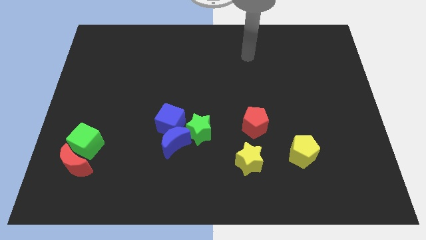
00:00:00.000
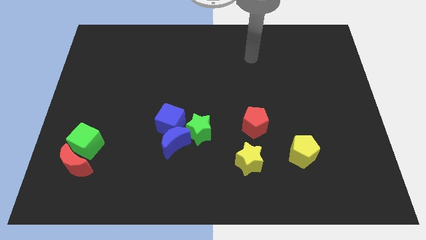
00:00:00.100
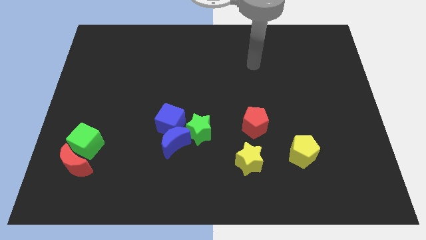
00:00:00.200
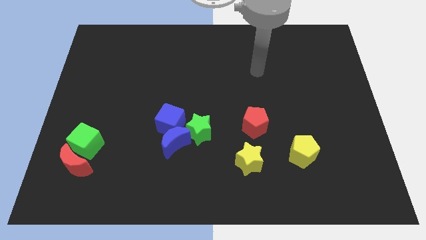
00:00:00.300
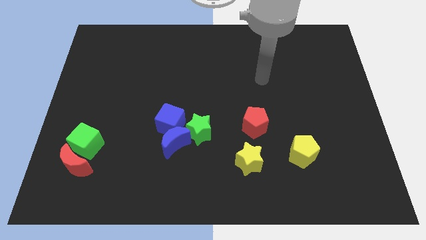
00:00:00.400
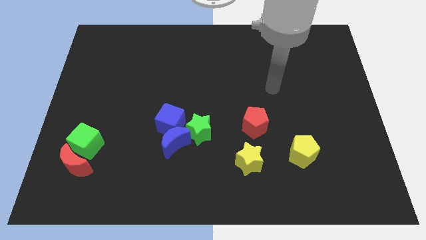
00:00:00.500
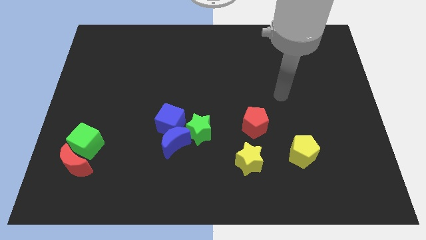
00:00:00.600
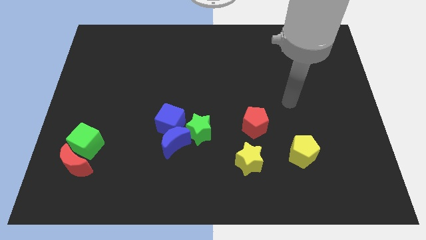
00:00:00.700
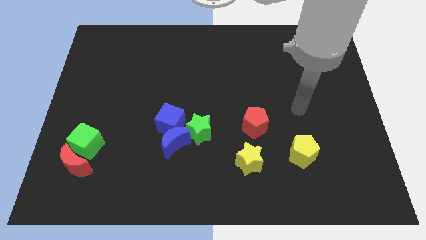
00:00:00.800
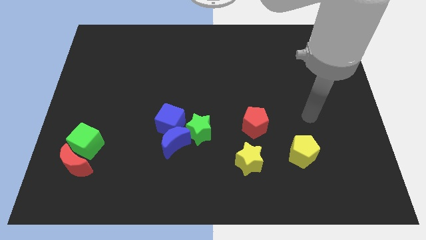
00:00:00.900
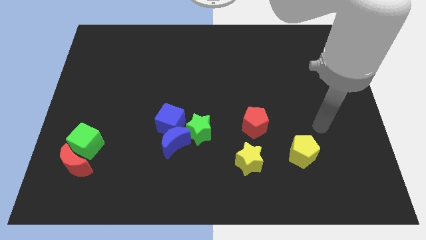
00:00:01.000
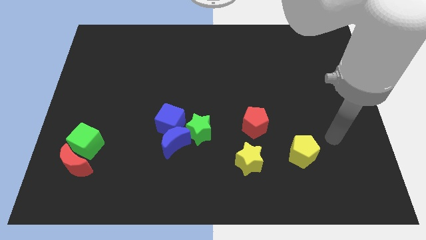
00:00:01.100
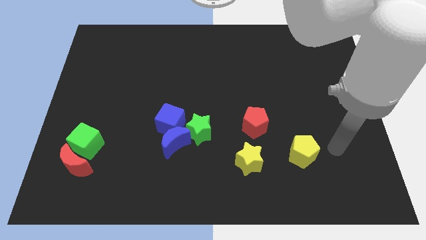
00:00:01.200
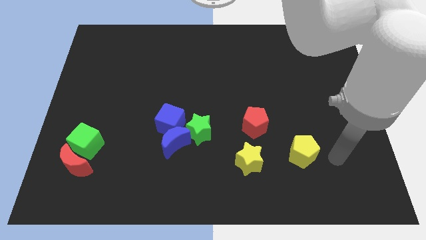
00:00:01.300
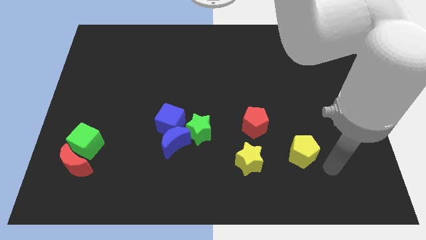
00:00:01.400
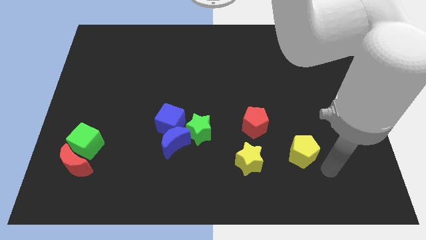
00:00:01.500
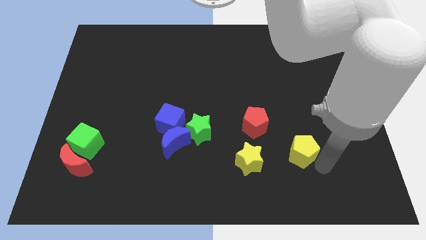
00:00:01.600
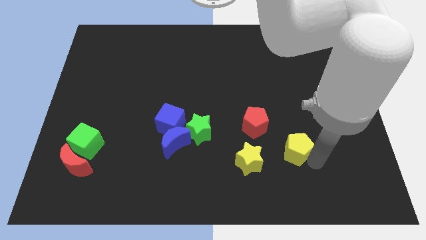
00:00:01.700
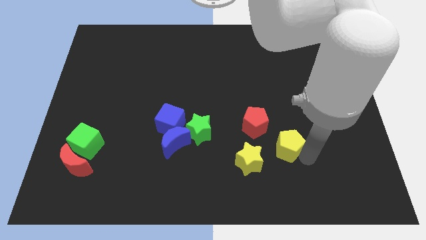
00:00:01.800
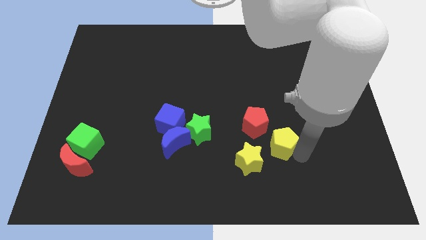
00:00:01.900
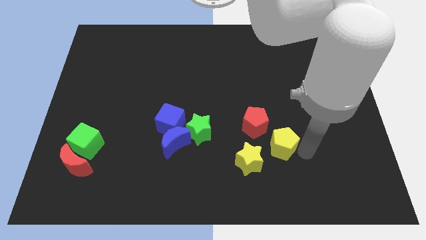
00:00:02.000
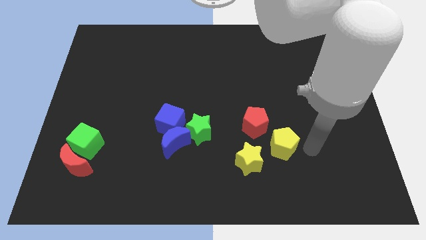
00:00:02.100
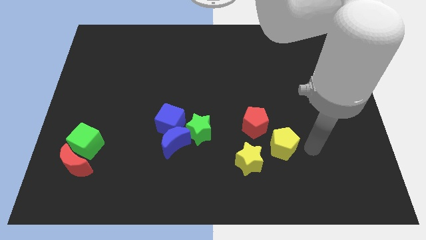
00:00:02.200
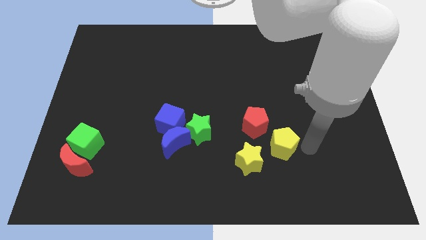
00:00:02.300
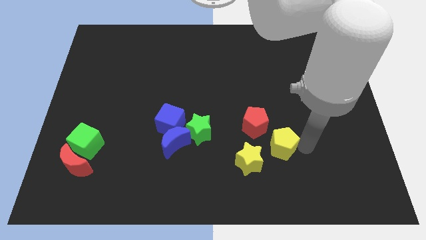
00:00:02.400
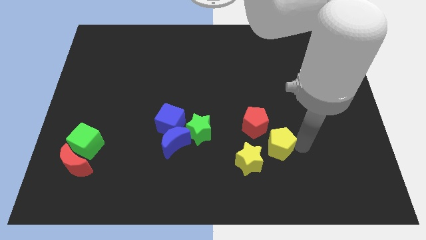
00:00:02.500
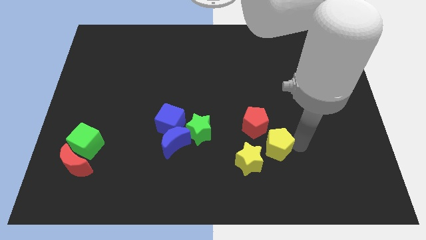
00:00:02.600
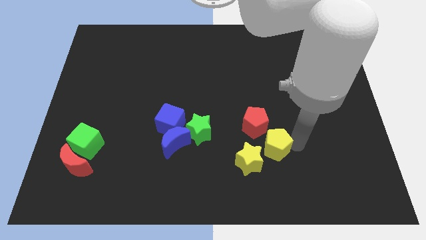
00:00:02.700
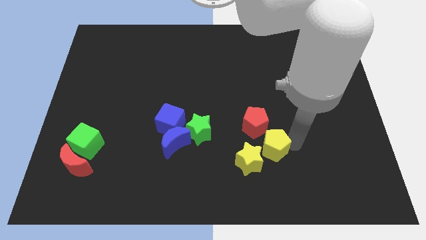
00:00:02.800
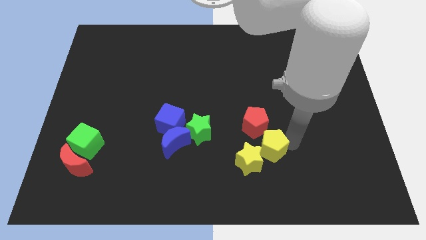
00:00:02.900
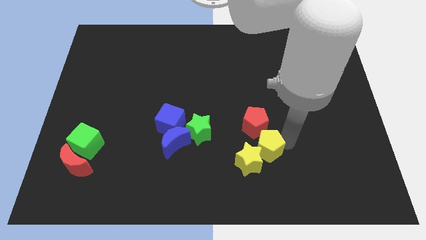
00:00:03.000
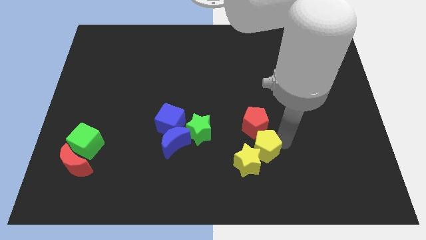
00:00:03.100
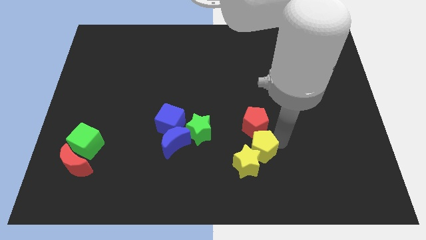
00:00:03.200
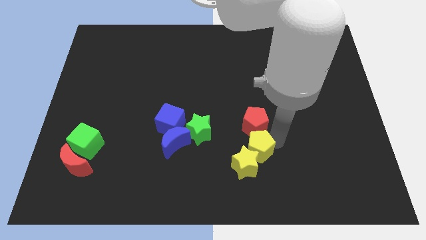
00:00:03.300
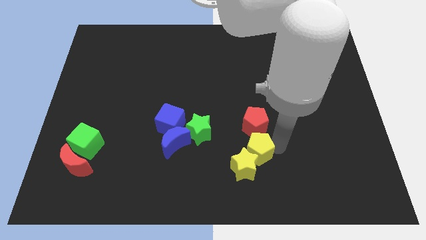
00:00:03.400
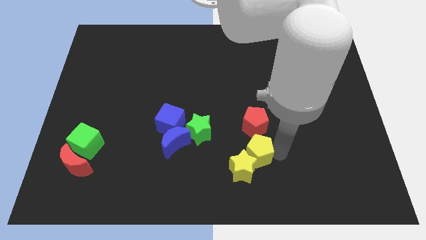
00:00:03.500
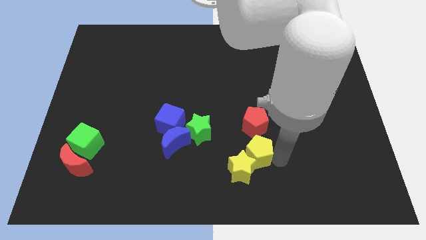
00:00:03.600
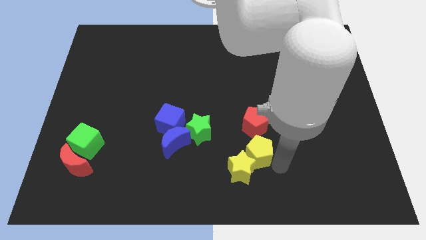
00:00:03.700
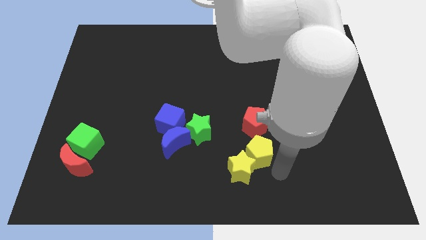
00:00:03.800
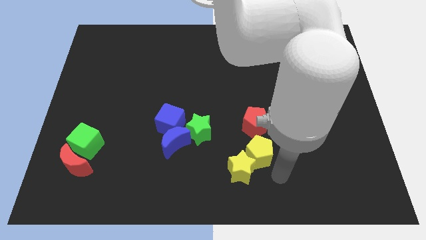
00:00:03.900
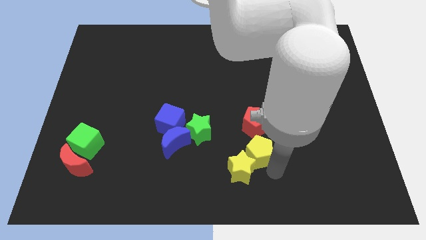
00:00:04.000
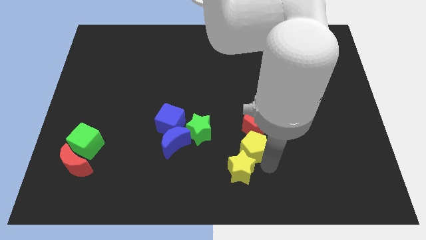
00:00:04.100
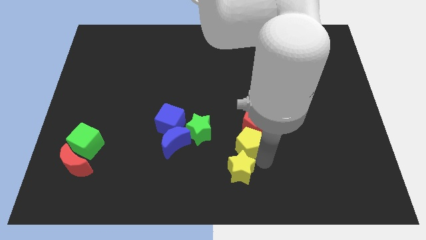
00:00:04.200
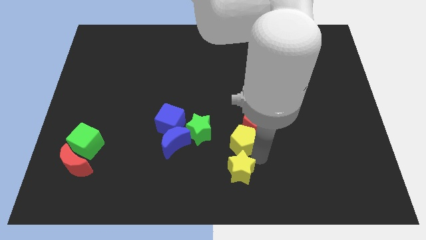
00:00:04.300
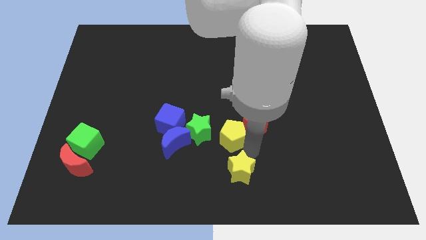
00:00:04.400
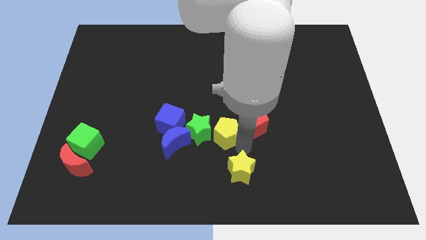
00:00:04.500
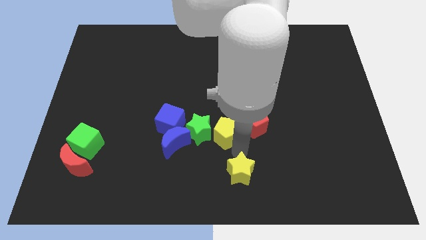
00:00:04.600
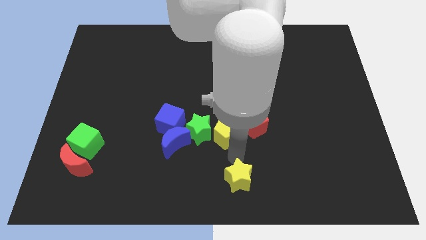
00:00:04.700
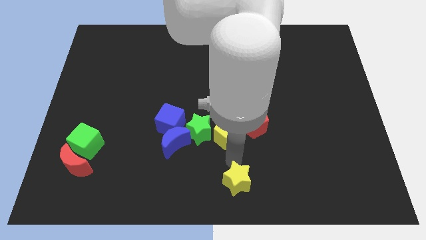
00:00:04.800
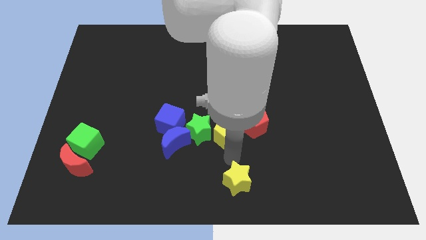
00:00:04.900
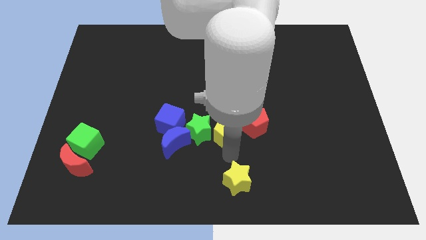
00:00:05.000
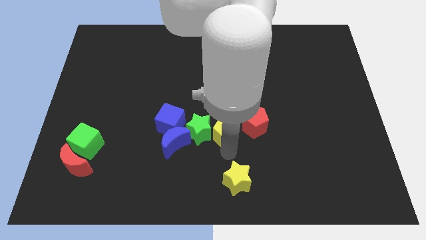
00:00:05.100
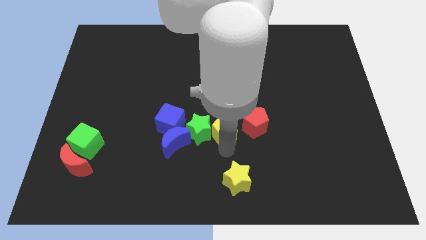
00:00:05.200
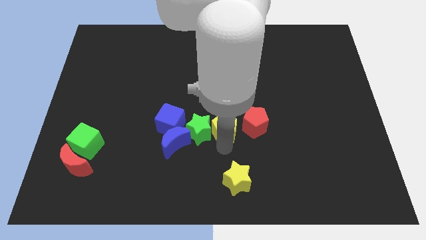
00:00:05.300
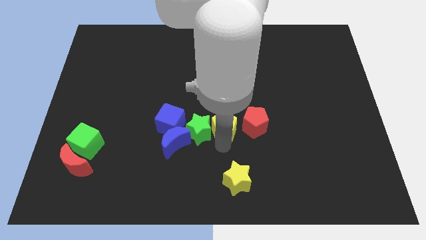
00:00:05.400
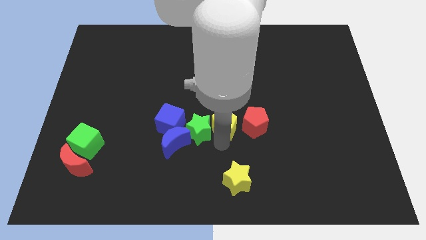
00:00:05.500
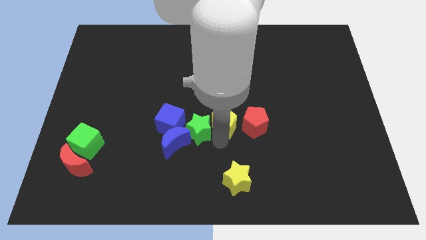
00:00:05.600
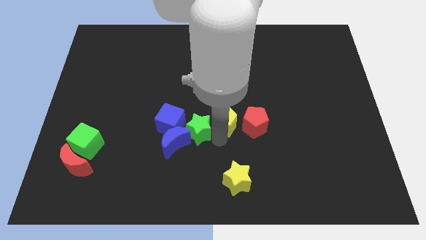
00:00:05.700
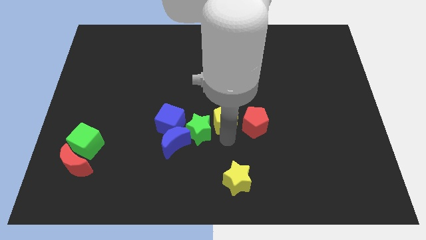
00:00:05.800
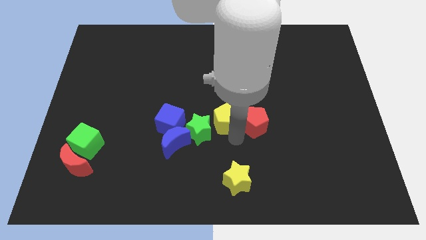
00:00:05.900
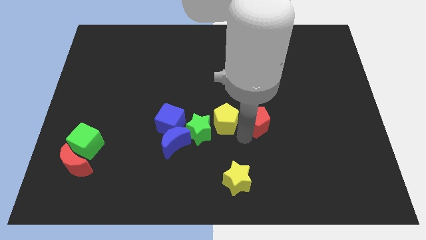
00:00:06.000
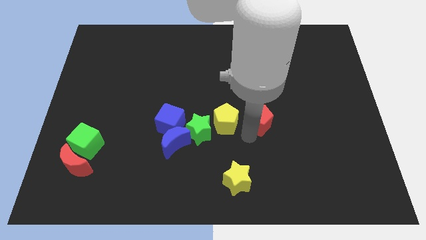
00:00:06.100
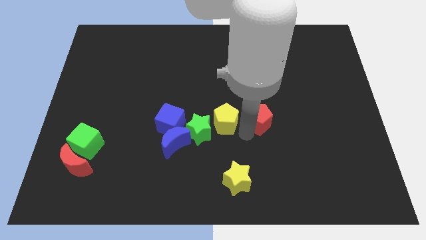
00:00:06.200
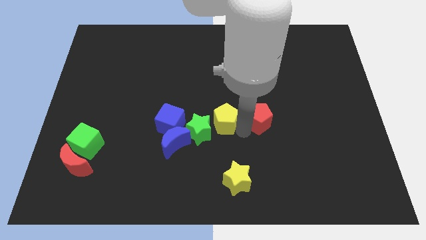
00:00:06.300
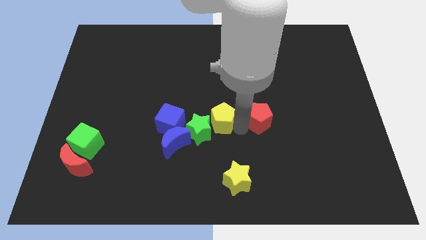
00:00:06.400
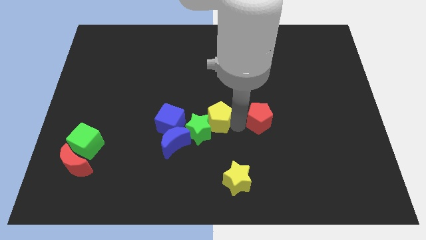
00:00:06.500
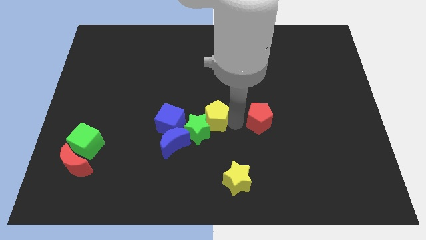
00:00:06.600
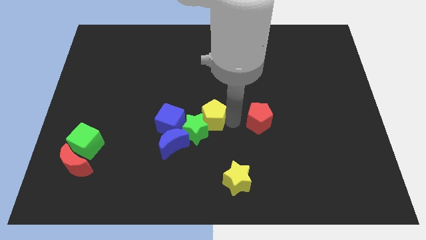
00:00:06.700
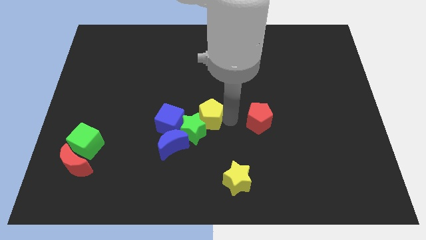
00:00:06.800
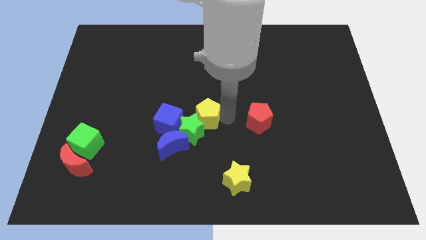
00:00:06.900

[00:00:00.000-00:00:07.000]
slide the yellow pentagon to the top right side of the blue cube

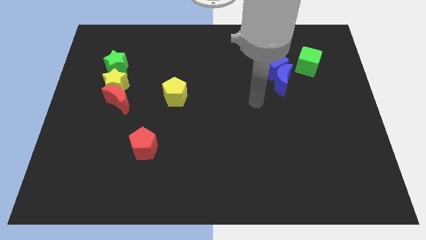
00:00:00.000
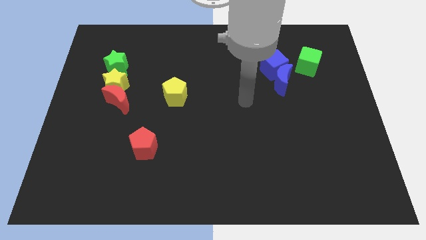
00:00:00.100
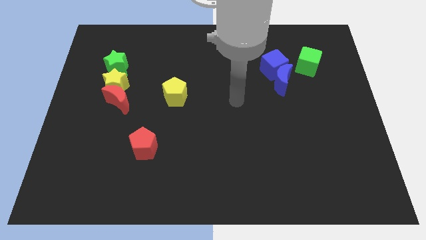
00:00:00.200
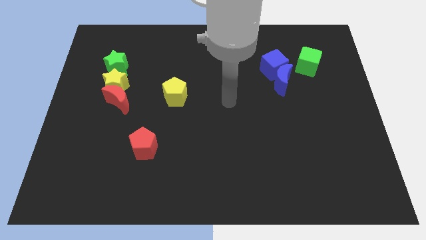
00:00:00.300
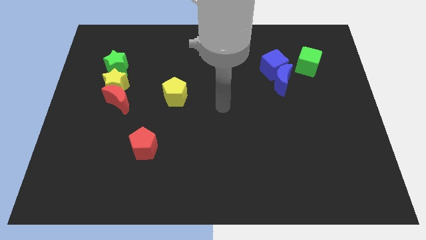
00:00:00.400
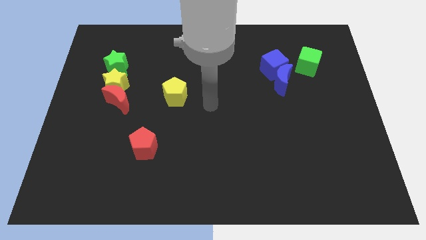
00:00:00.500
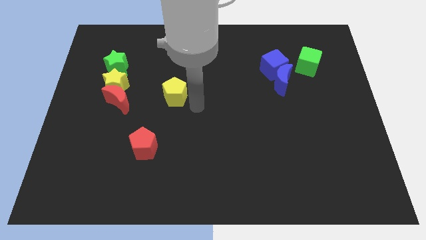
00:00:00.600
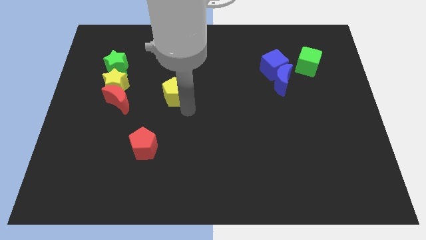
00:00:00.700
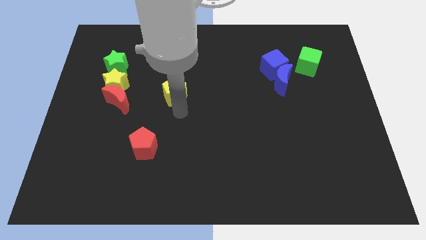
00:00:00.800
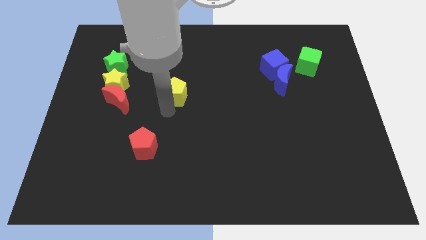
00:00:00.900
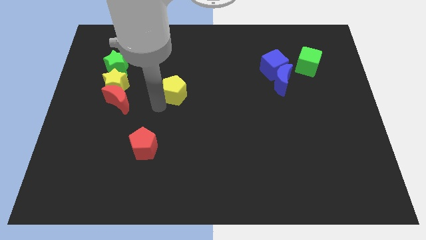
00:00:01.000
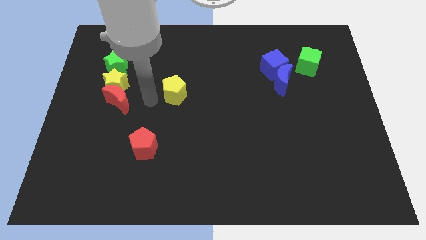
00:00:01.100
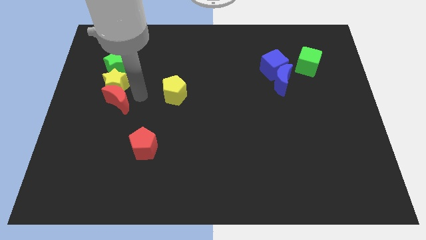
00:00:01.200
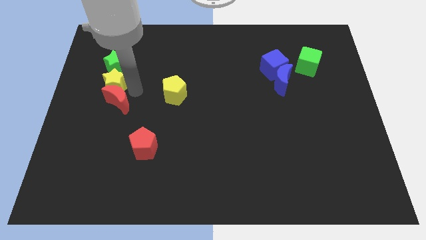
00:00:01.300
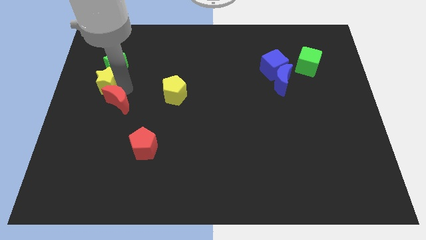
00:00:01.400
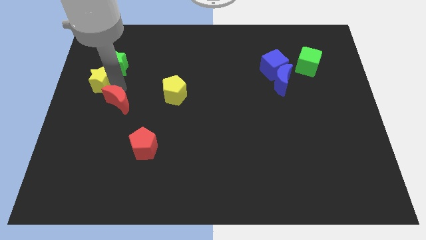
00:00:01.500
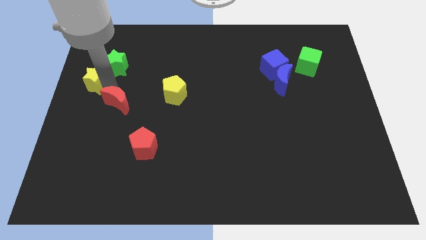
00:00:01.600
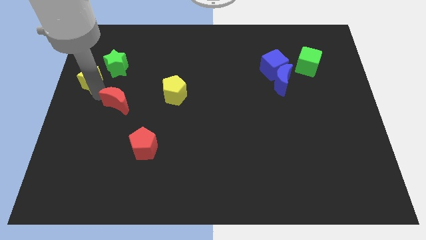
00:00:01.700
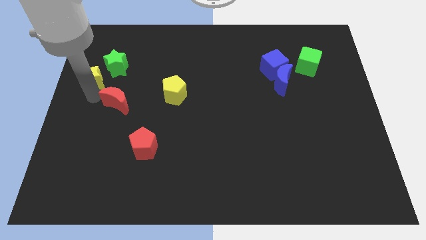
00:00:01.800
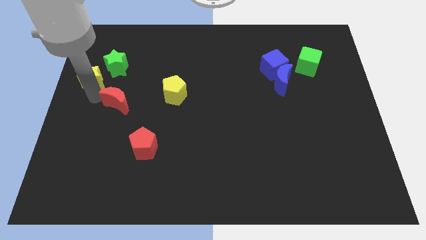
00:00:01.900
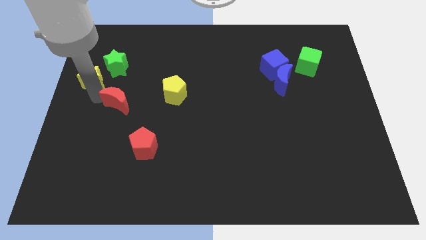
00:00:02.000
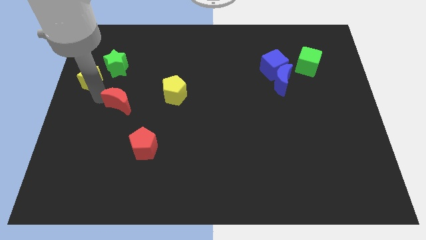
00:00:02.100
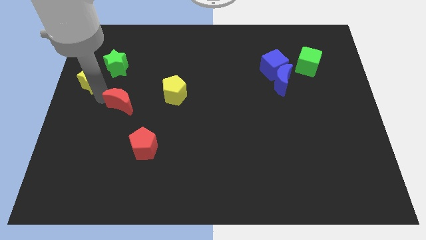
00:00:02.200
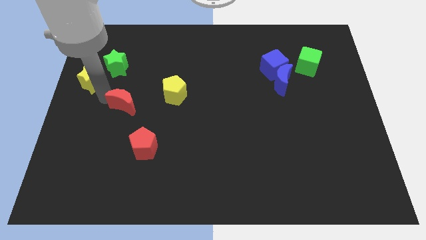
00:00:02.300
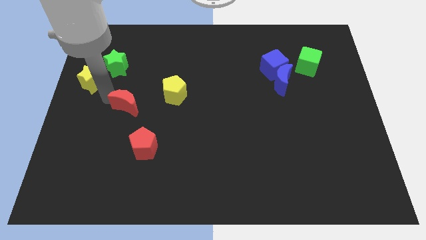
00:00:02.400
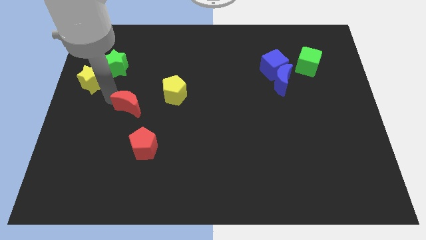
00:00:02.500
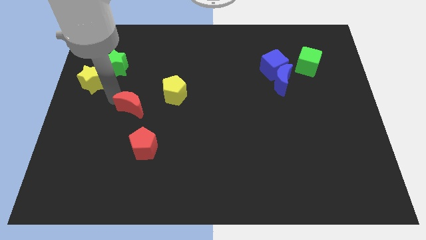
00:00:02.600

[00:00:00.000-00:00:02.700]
push the red moon diagonally down and to the left of the yellow pentagon
